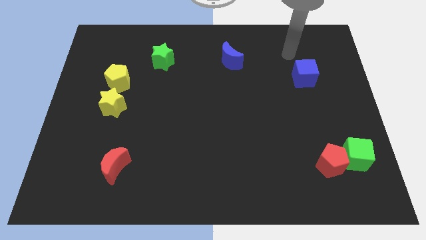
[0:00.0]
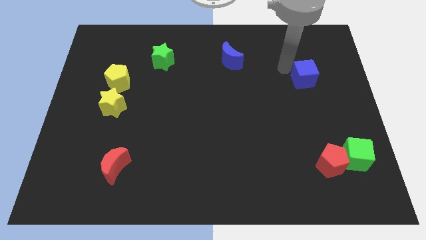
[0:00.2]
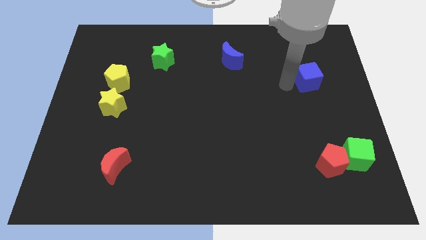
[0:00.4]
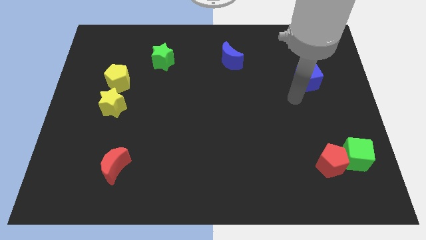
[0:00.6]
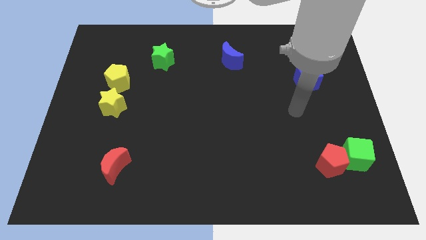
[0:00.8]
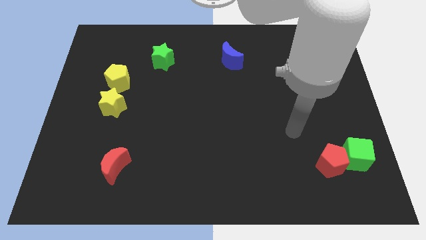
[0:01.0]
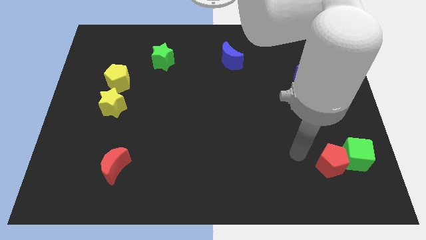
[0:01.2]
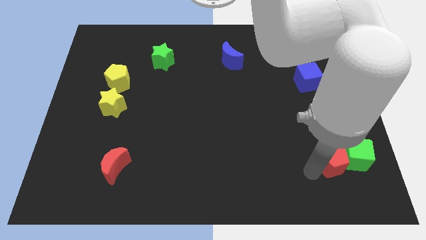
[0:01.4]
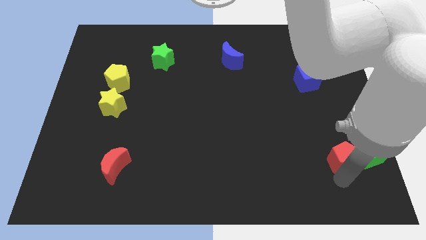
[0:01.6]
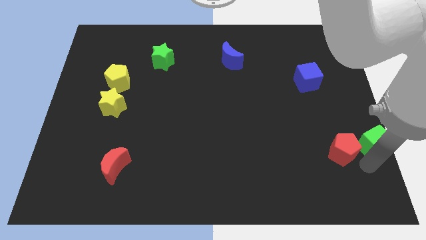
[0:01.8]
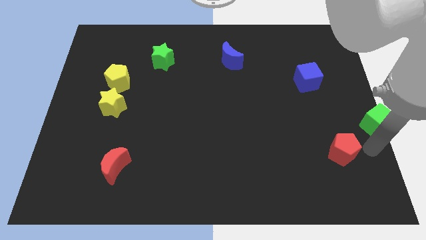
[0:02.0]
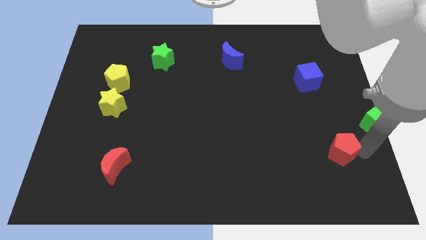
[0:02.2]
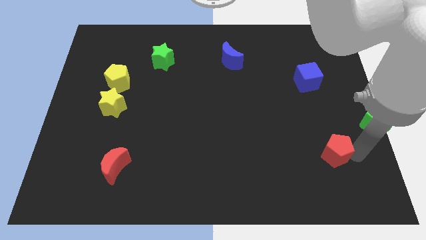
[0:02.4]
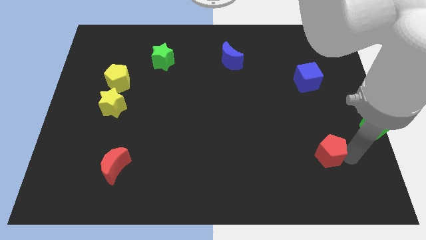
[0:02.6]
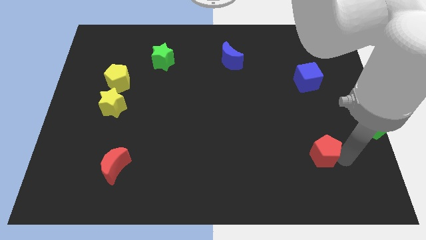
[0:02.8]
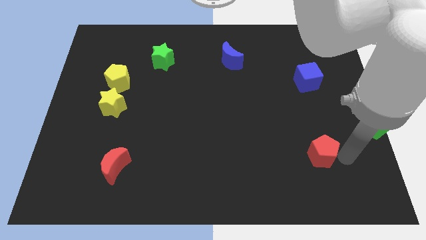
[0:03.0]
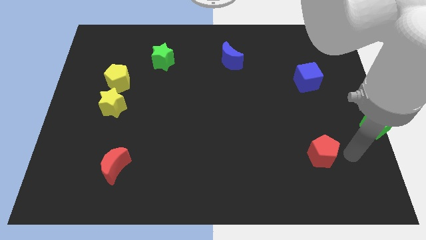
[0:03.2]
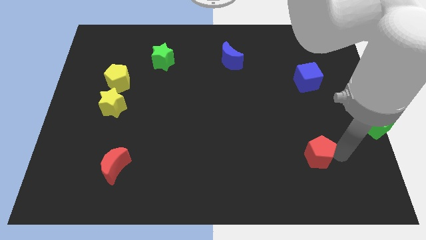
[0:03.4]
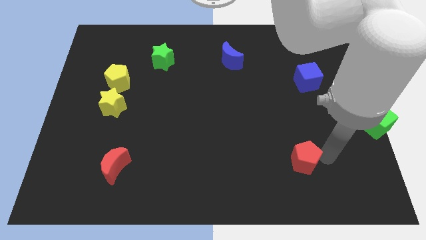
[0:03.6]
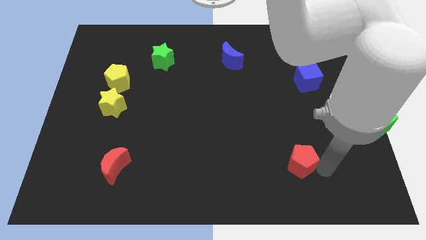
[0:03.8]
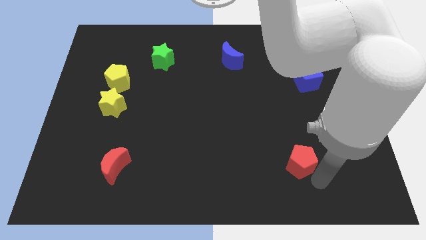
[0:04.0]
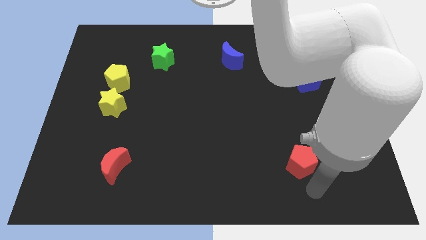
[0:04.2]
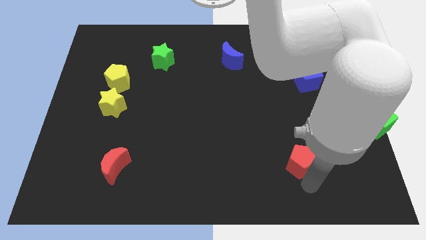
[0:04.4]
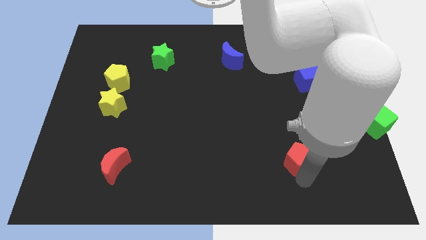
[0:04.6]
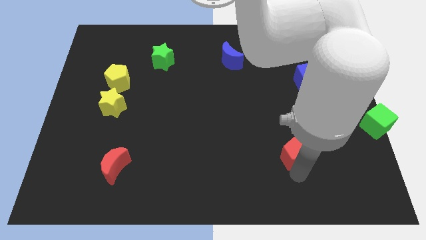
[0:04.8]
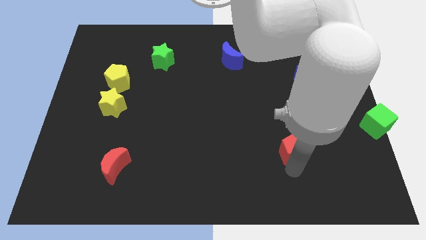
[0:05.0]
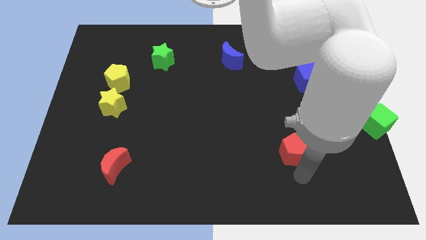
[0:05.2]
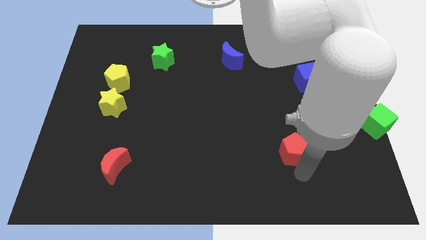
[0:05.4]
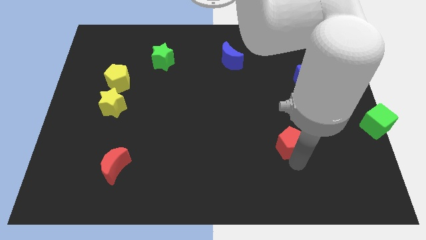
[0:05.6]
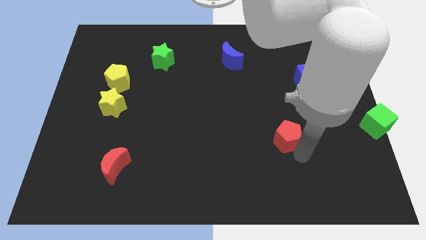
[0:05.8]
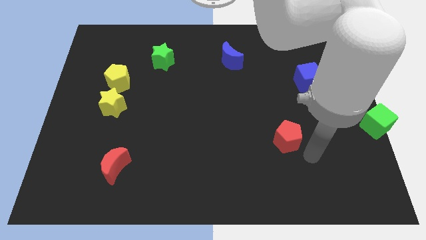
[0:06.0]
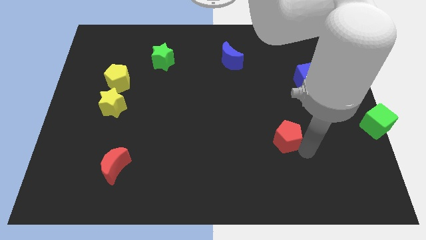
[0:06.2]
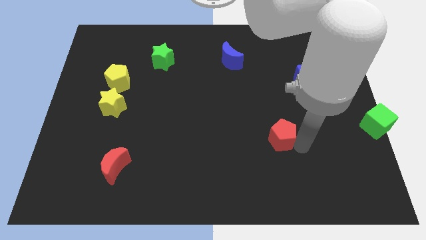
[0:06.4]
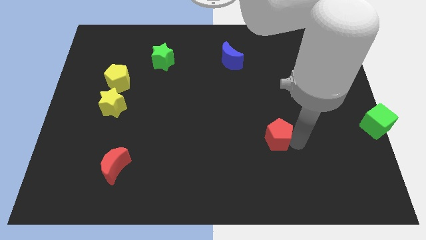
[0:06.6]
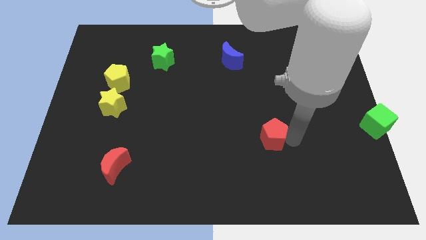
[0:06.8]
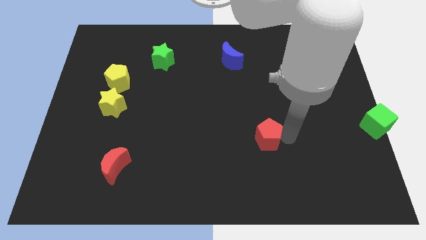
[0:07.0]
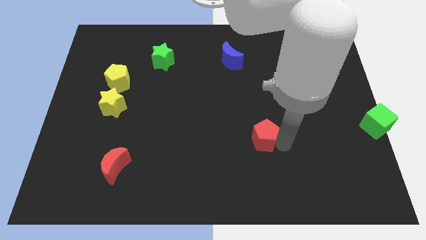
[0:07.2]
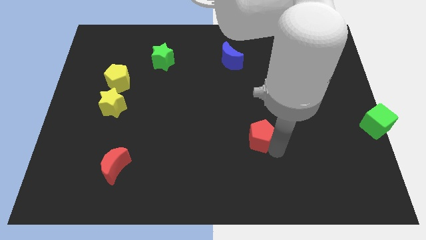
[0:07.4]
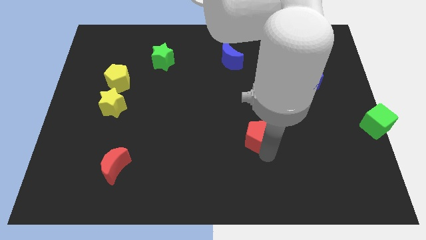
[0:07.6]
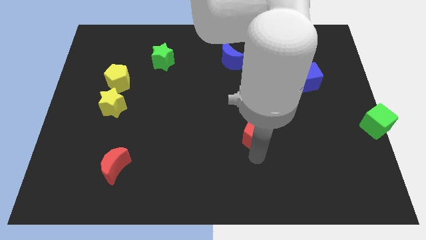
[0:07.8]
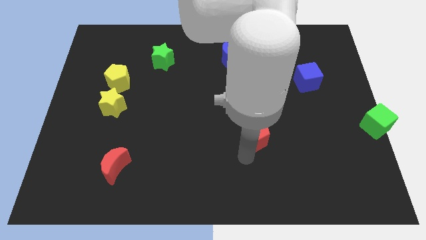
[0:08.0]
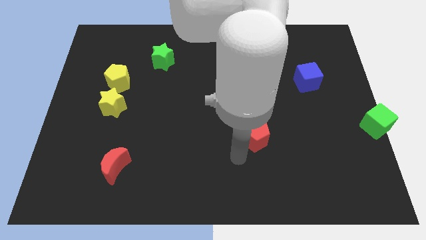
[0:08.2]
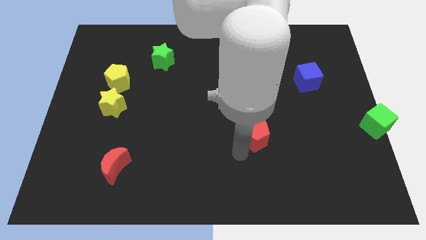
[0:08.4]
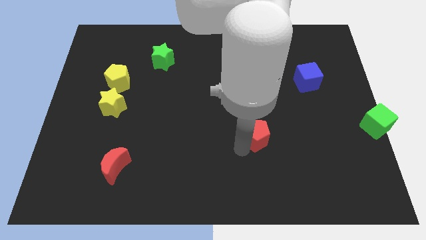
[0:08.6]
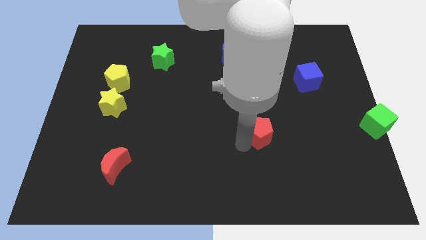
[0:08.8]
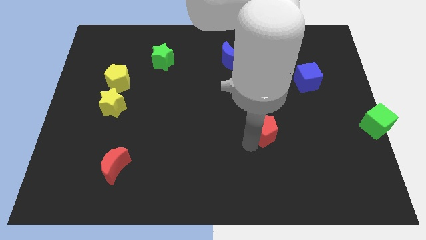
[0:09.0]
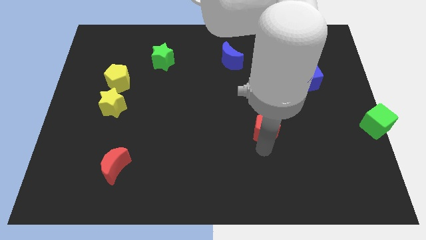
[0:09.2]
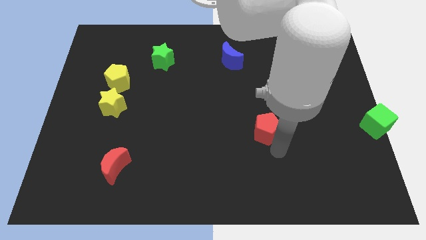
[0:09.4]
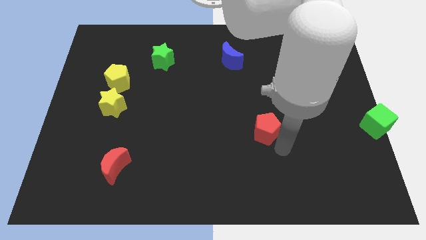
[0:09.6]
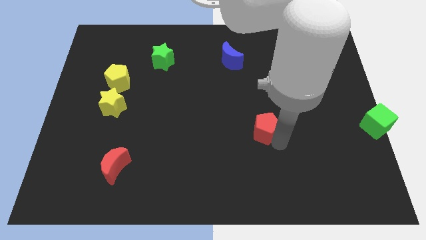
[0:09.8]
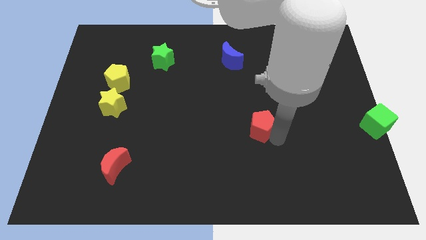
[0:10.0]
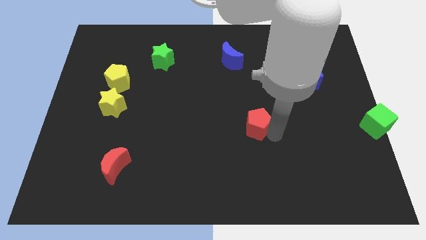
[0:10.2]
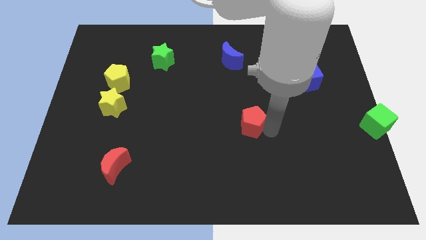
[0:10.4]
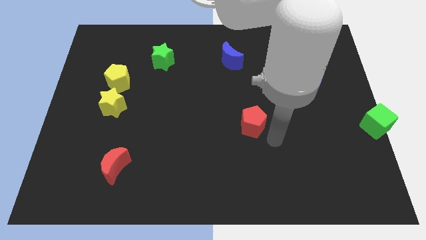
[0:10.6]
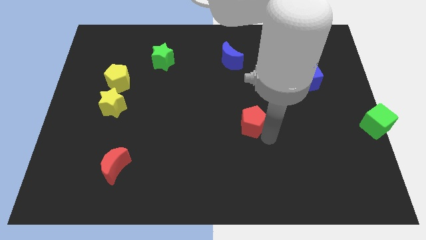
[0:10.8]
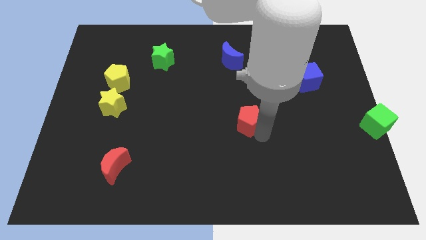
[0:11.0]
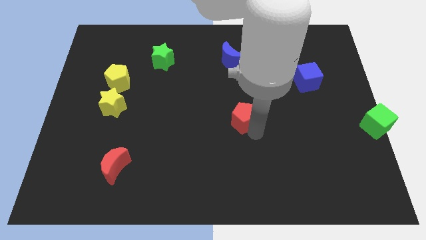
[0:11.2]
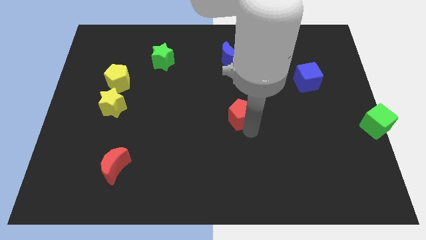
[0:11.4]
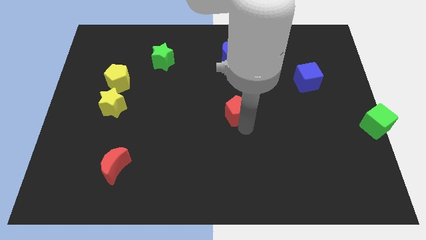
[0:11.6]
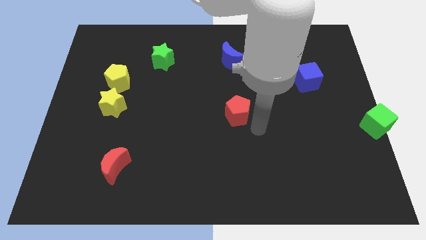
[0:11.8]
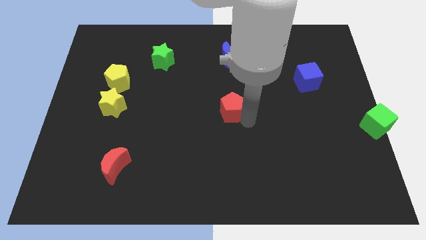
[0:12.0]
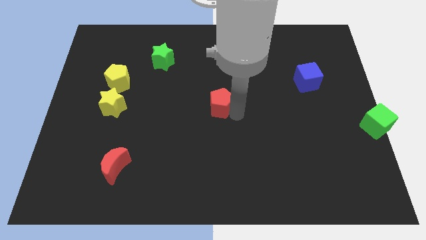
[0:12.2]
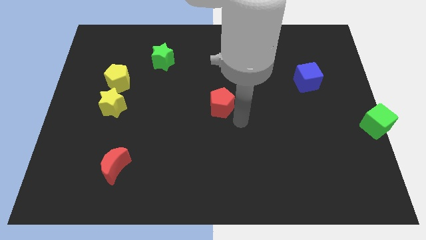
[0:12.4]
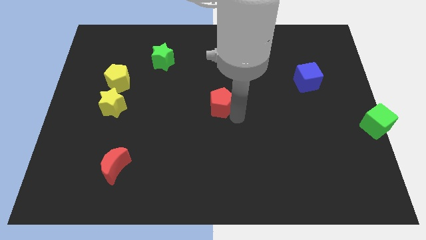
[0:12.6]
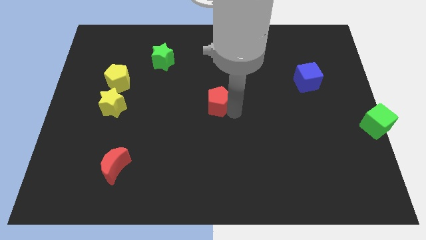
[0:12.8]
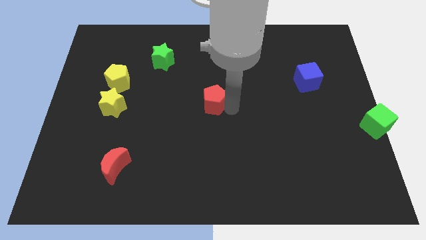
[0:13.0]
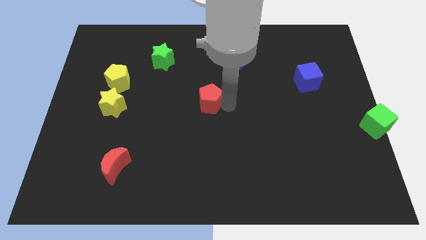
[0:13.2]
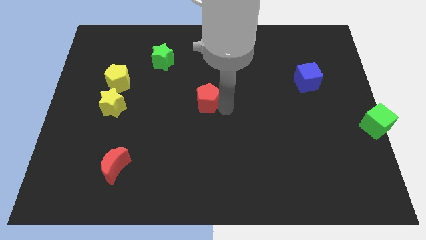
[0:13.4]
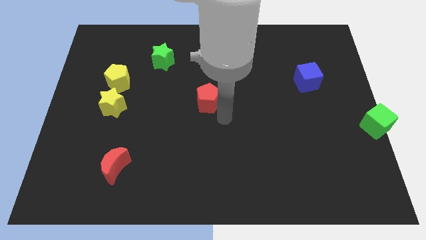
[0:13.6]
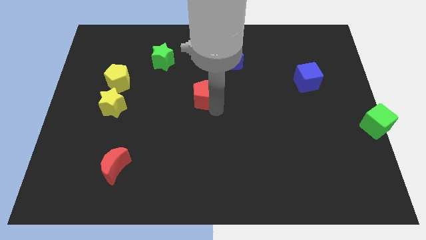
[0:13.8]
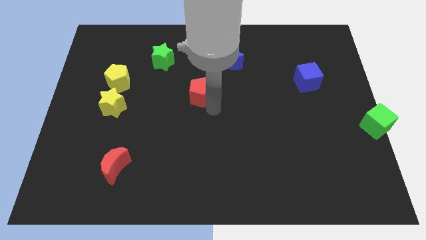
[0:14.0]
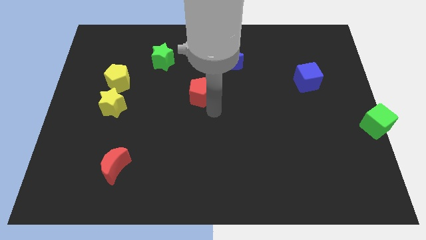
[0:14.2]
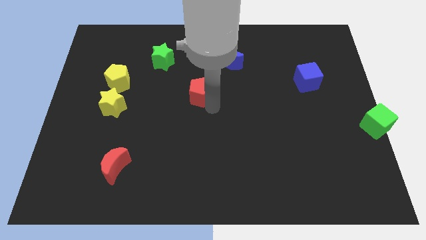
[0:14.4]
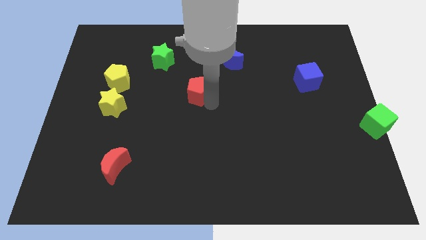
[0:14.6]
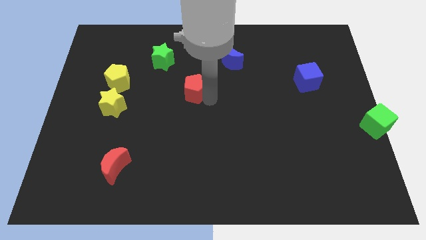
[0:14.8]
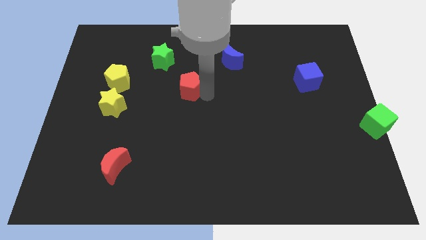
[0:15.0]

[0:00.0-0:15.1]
slide the red pentagon to the bottom right side of the green star

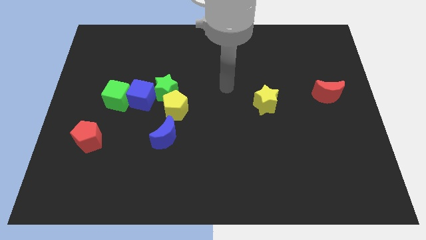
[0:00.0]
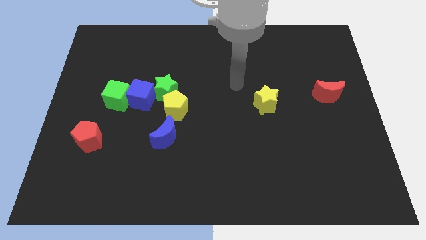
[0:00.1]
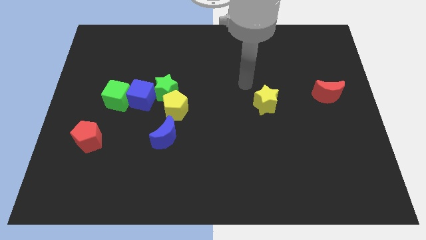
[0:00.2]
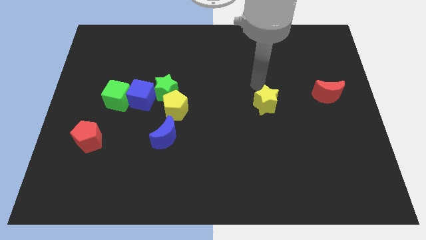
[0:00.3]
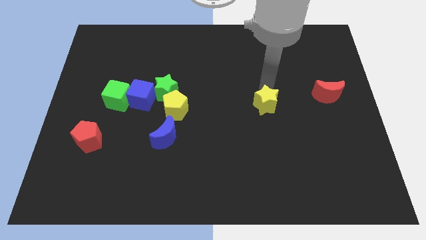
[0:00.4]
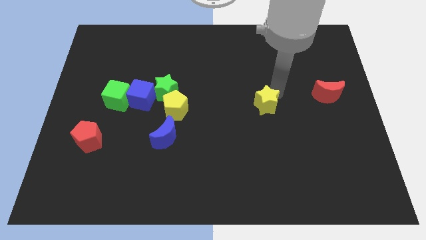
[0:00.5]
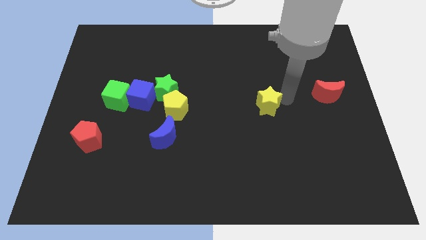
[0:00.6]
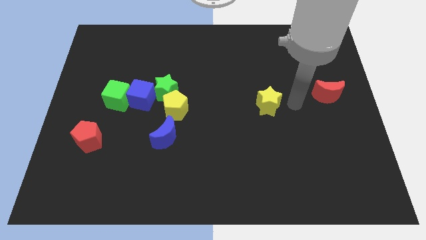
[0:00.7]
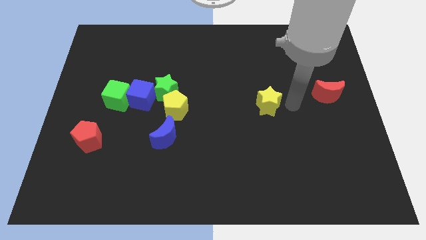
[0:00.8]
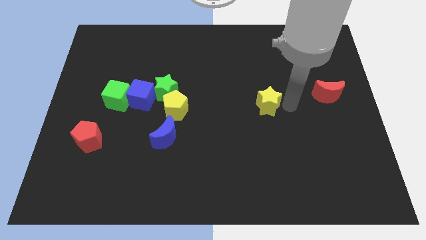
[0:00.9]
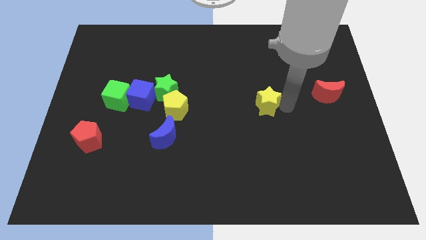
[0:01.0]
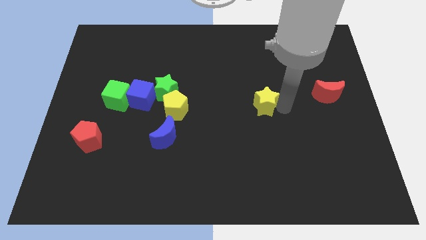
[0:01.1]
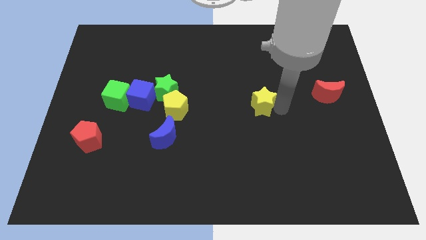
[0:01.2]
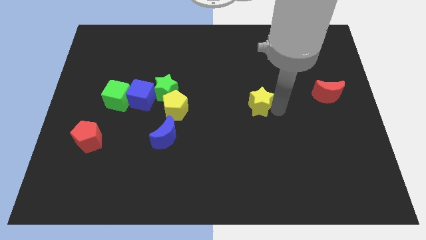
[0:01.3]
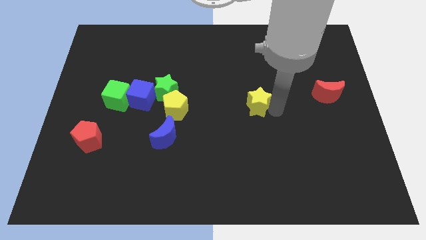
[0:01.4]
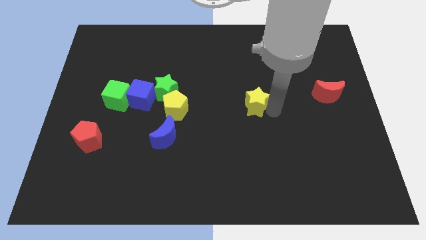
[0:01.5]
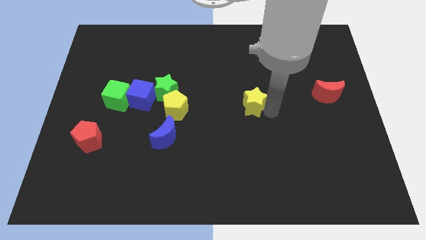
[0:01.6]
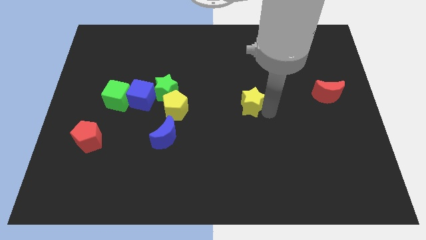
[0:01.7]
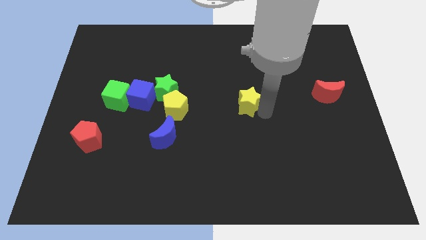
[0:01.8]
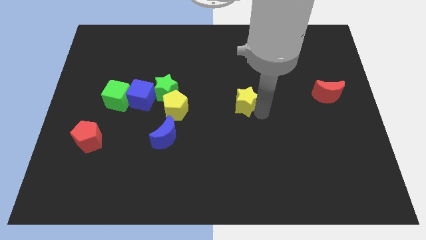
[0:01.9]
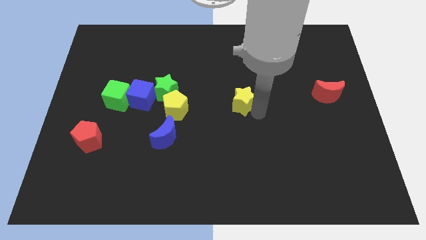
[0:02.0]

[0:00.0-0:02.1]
put the yellow star to the right side of the yellow pentagon
